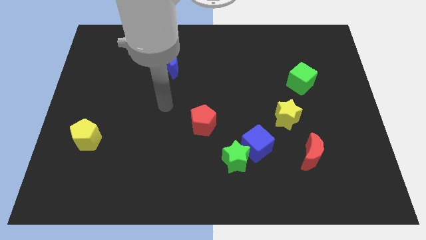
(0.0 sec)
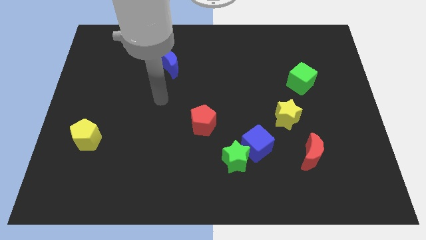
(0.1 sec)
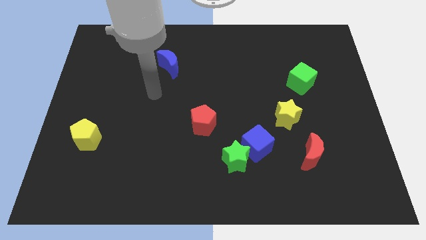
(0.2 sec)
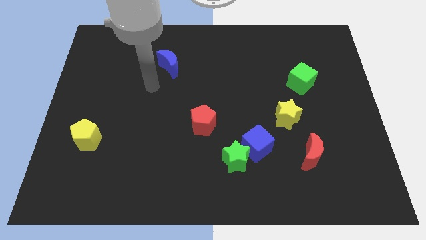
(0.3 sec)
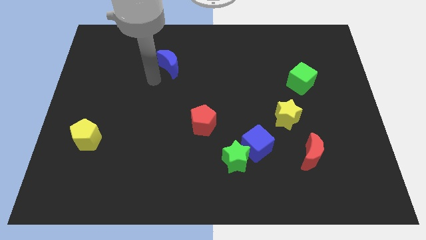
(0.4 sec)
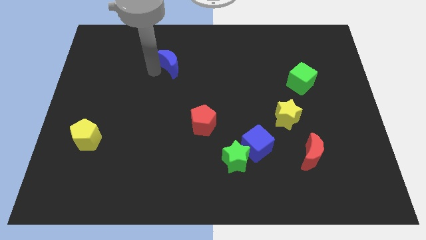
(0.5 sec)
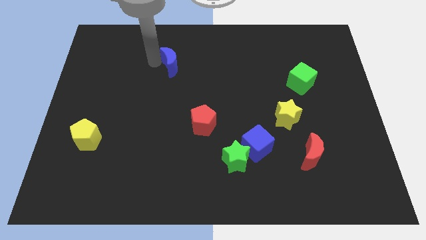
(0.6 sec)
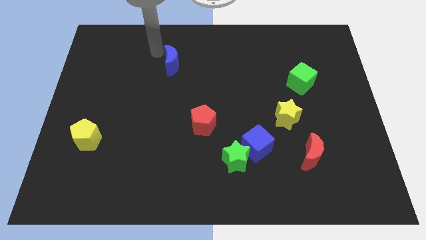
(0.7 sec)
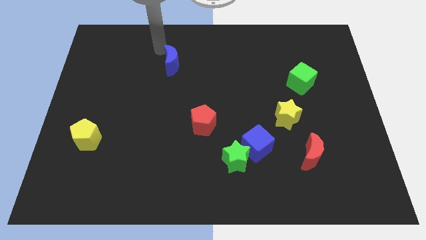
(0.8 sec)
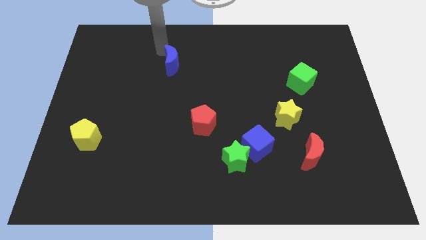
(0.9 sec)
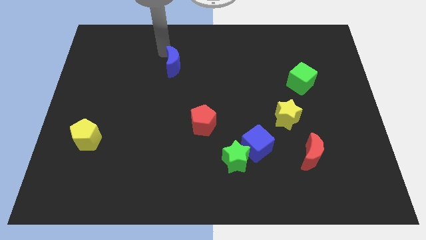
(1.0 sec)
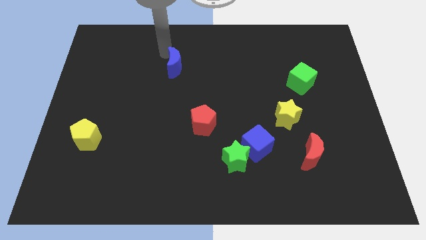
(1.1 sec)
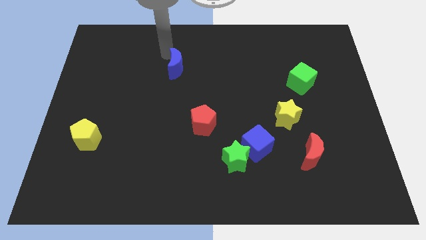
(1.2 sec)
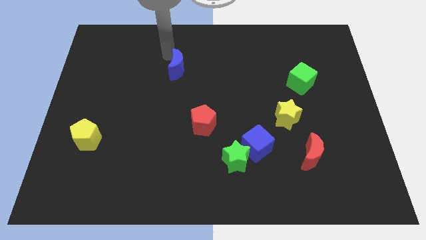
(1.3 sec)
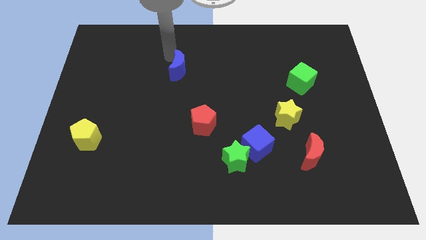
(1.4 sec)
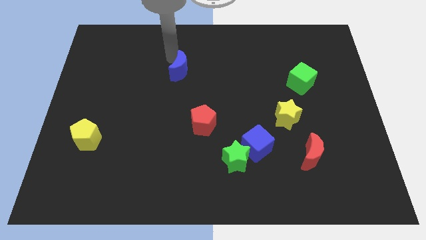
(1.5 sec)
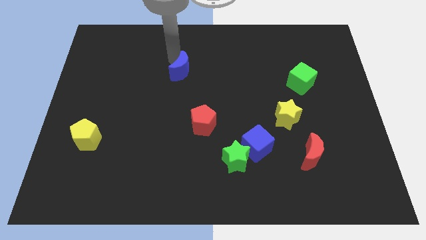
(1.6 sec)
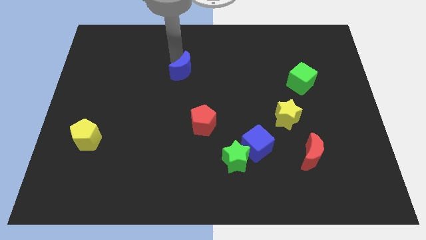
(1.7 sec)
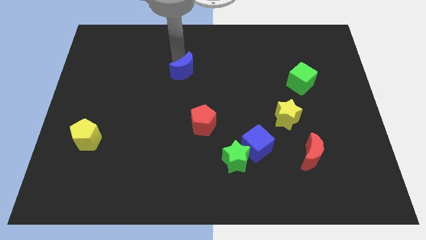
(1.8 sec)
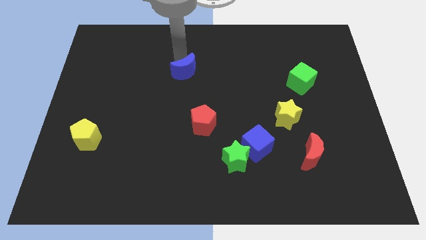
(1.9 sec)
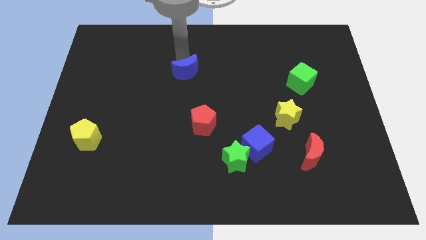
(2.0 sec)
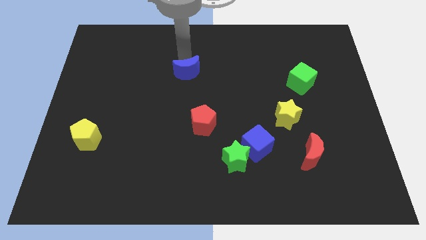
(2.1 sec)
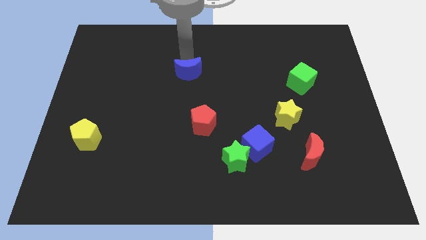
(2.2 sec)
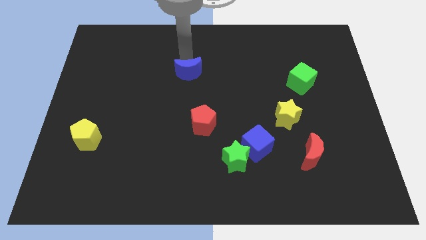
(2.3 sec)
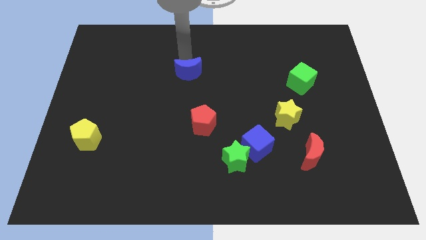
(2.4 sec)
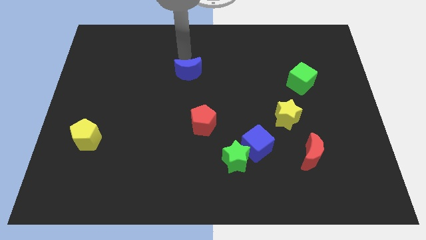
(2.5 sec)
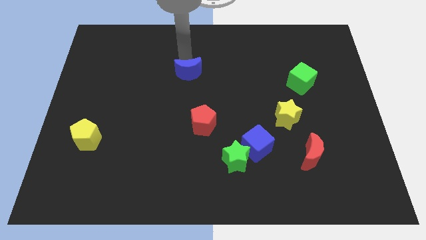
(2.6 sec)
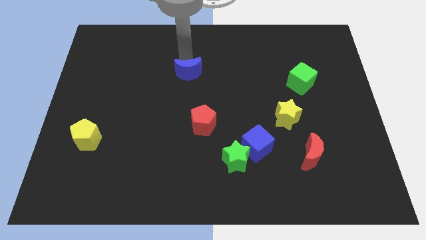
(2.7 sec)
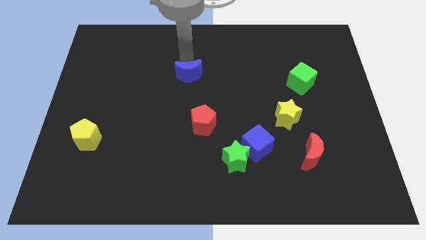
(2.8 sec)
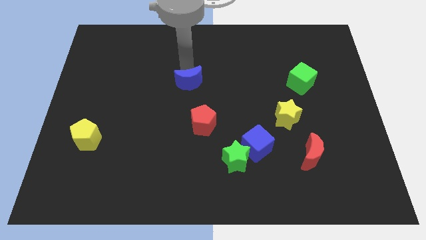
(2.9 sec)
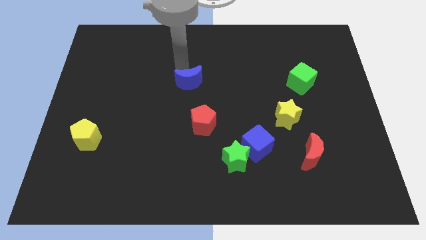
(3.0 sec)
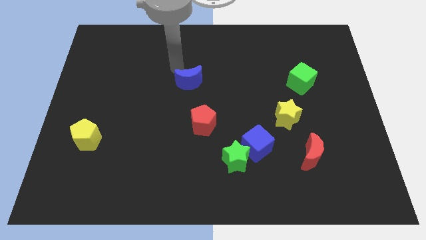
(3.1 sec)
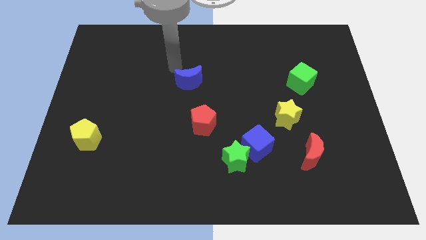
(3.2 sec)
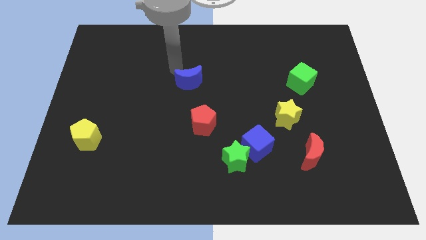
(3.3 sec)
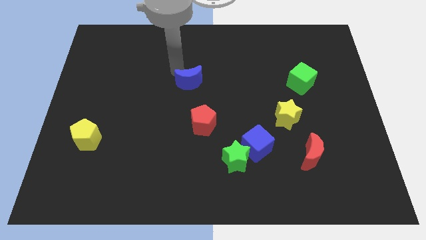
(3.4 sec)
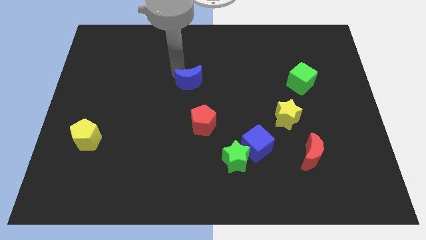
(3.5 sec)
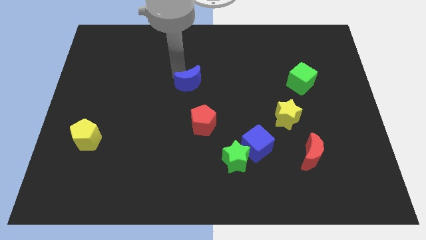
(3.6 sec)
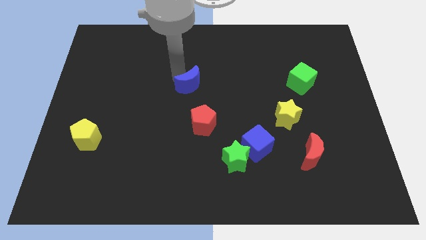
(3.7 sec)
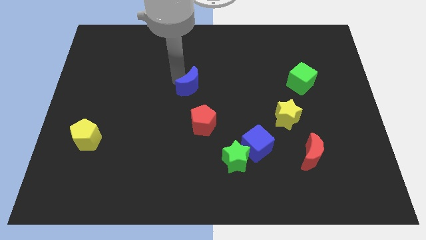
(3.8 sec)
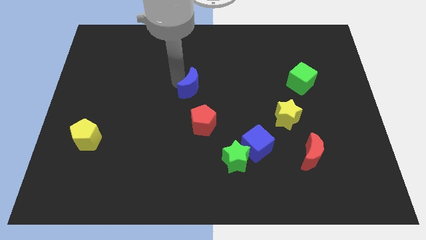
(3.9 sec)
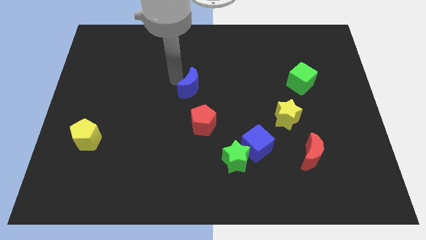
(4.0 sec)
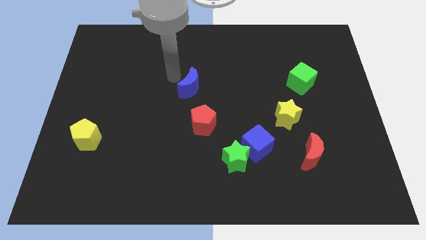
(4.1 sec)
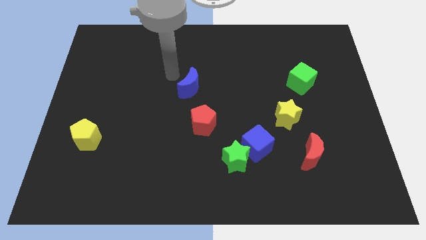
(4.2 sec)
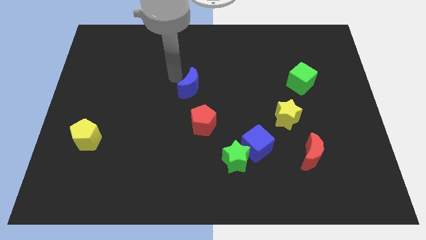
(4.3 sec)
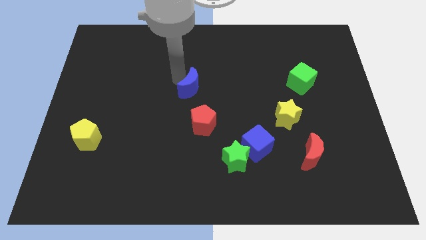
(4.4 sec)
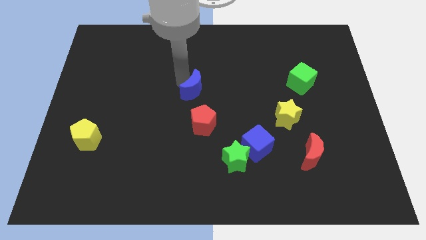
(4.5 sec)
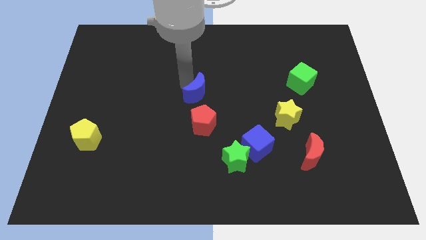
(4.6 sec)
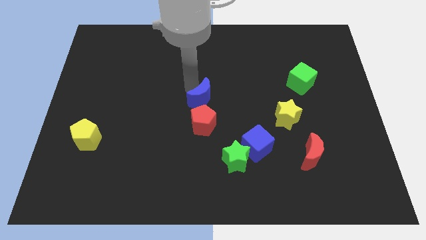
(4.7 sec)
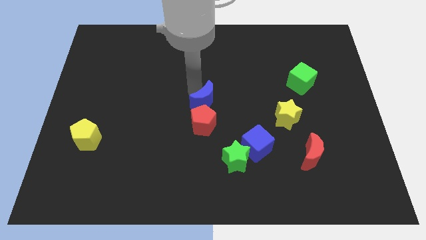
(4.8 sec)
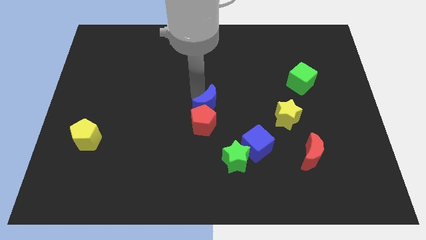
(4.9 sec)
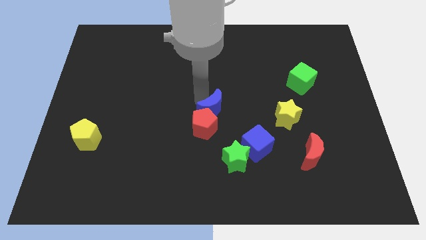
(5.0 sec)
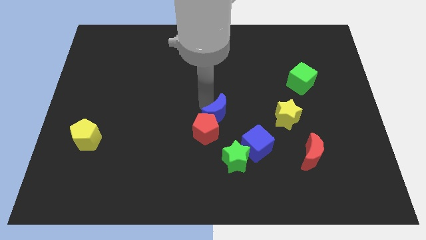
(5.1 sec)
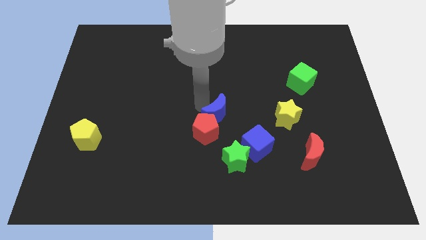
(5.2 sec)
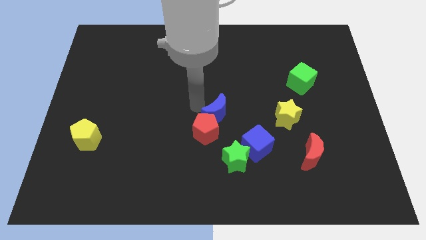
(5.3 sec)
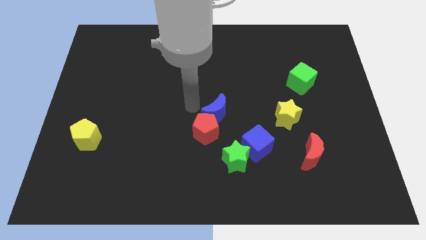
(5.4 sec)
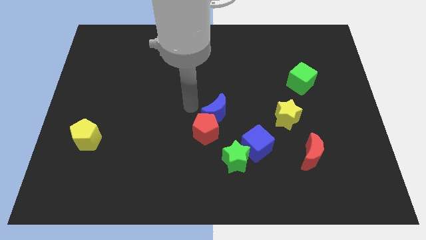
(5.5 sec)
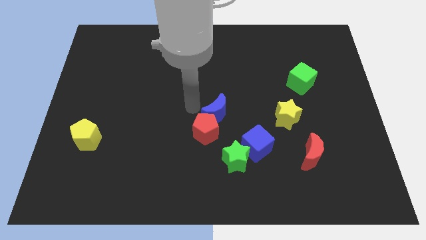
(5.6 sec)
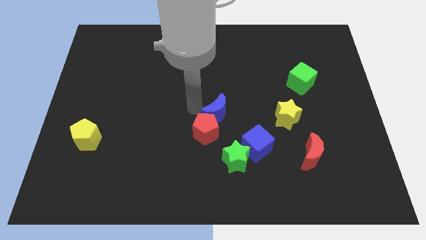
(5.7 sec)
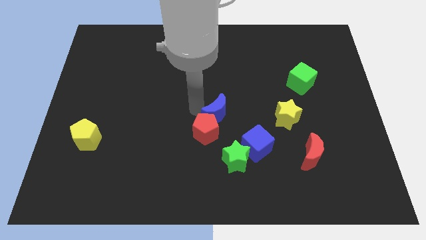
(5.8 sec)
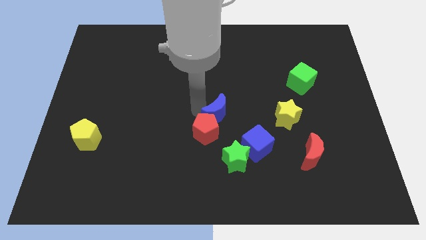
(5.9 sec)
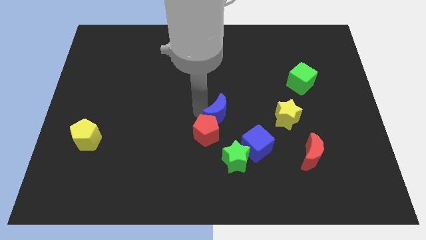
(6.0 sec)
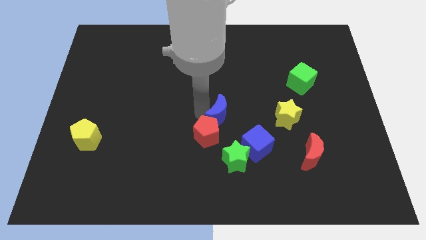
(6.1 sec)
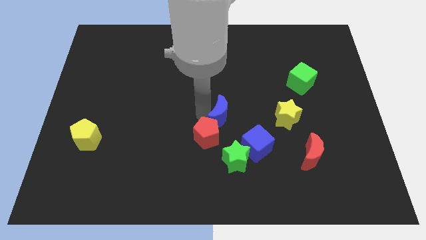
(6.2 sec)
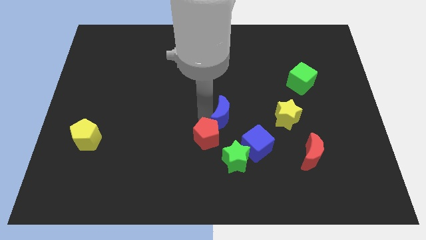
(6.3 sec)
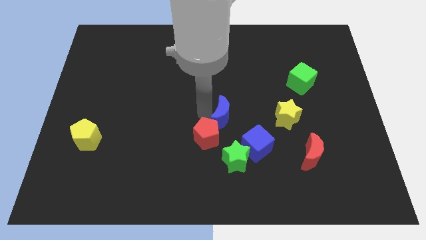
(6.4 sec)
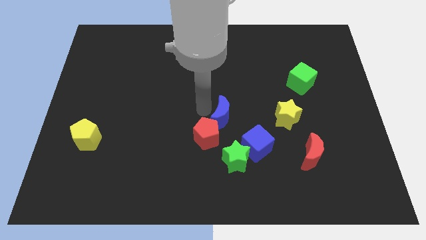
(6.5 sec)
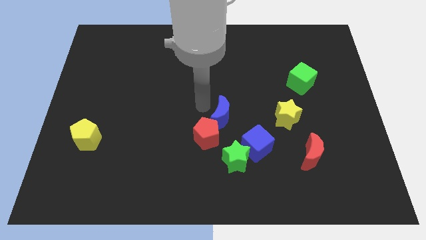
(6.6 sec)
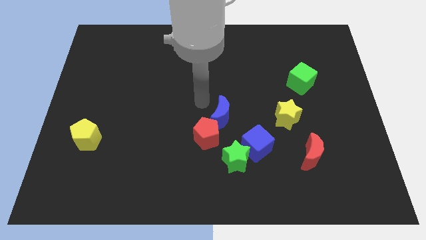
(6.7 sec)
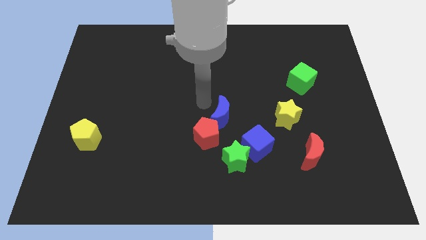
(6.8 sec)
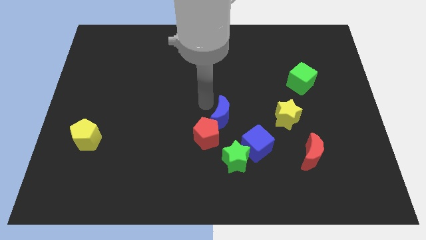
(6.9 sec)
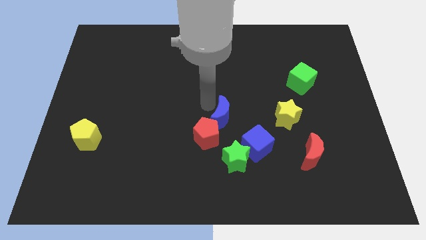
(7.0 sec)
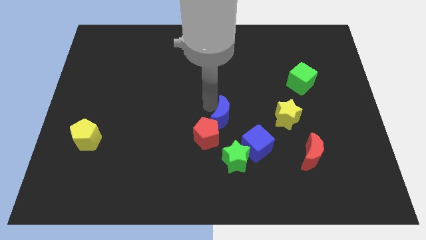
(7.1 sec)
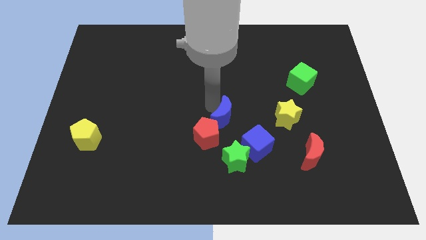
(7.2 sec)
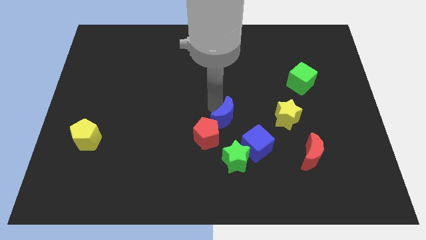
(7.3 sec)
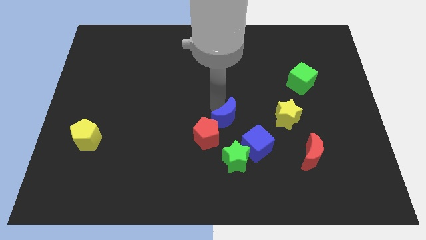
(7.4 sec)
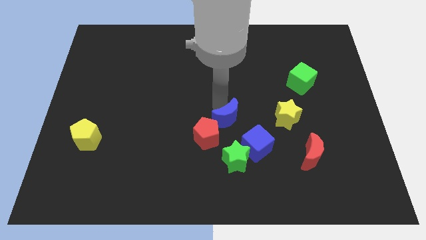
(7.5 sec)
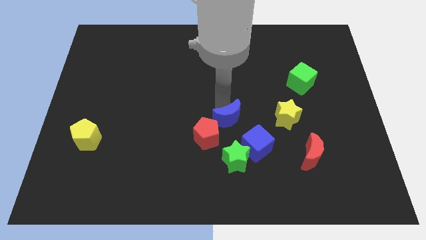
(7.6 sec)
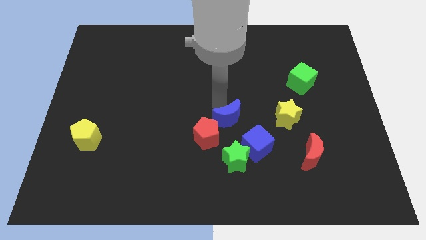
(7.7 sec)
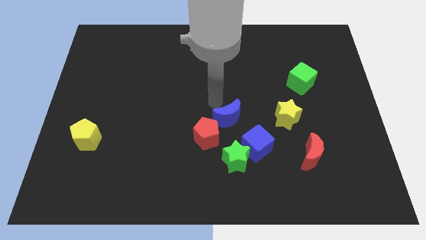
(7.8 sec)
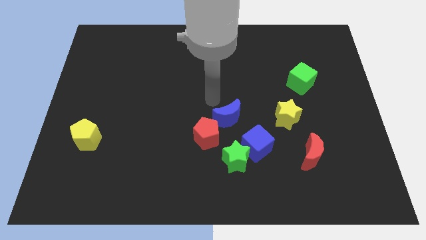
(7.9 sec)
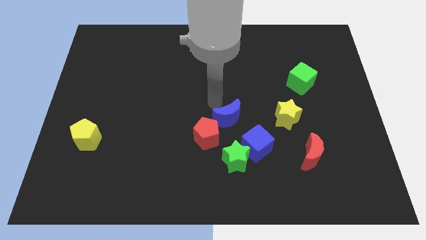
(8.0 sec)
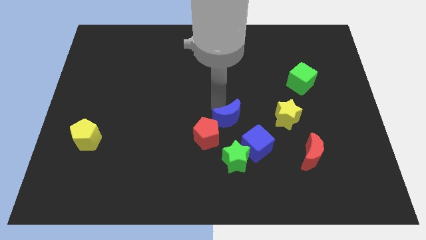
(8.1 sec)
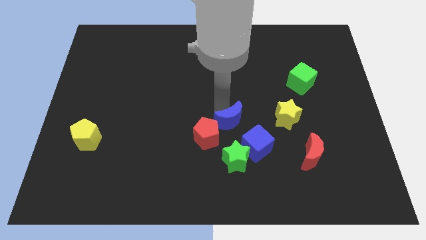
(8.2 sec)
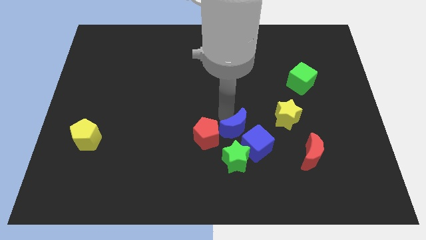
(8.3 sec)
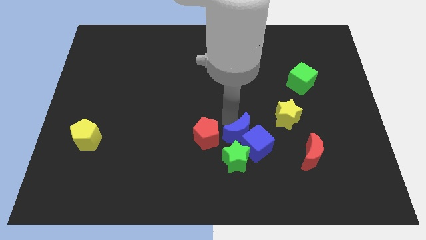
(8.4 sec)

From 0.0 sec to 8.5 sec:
push the blue moon to the blue cube
